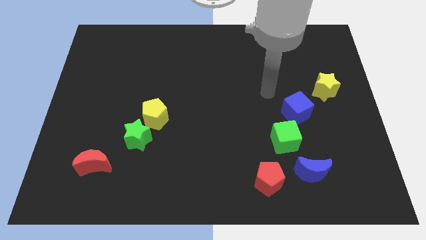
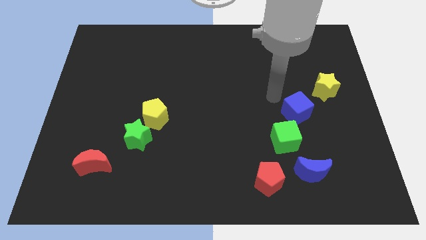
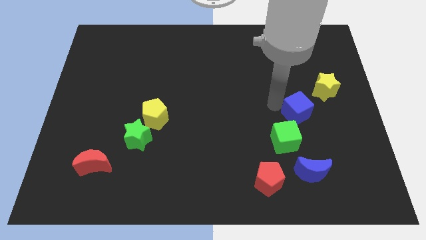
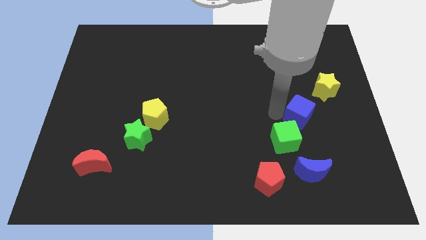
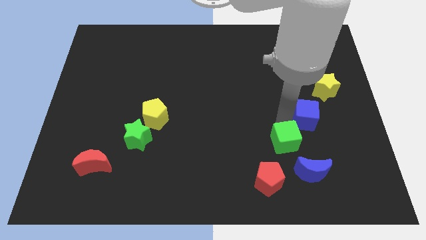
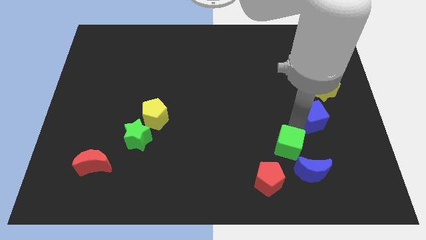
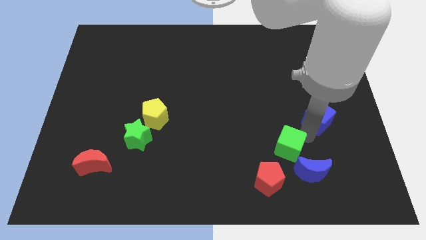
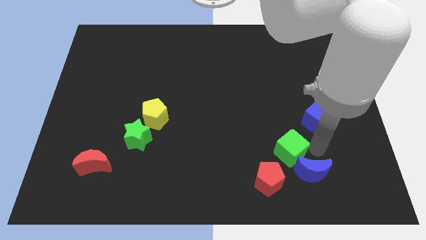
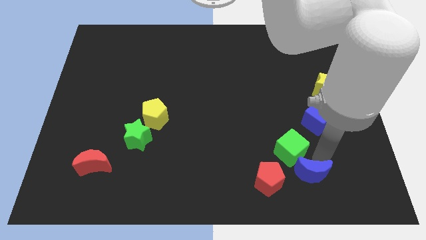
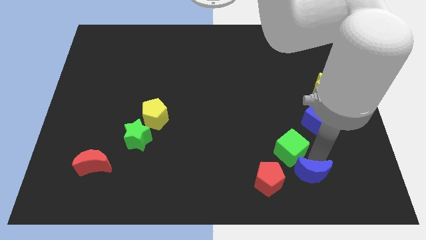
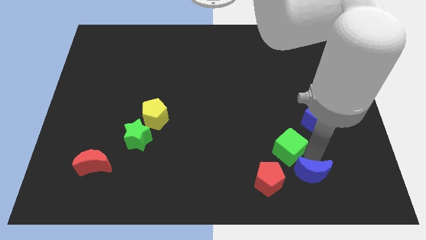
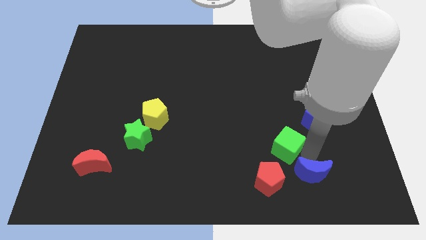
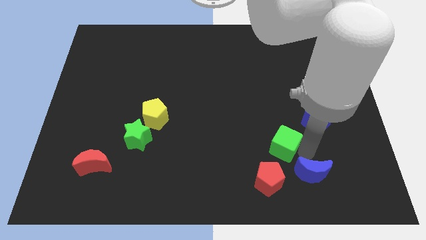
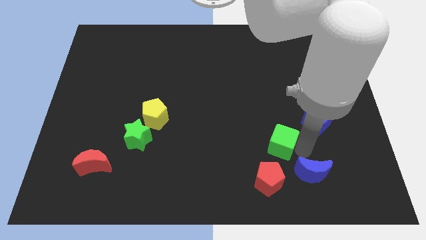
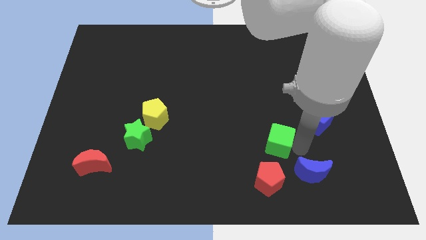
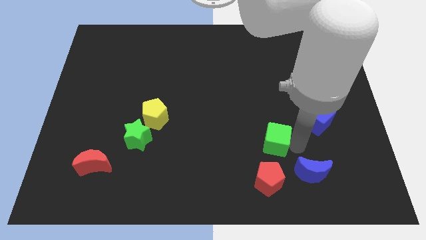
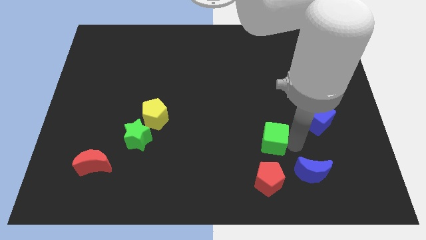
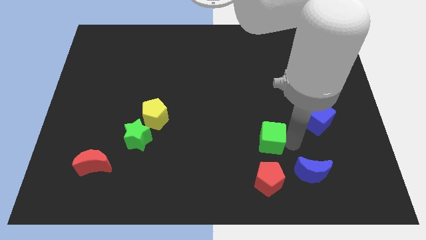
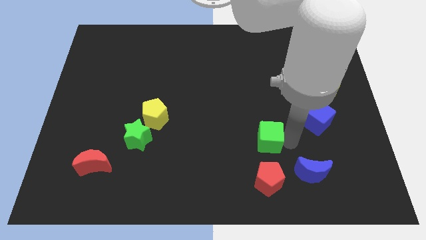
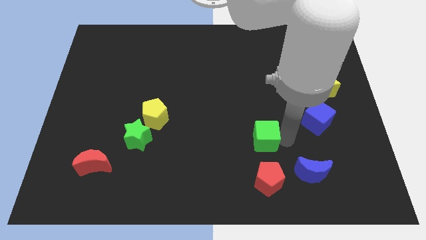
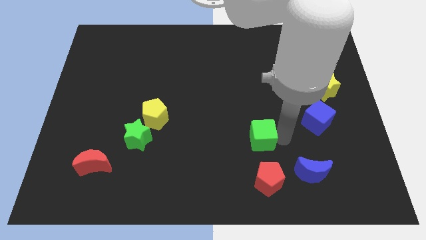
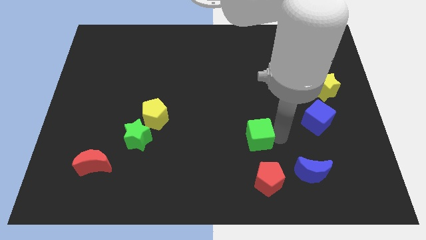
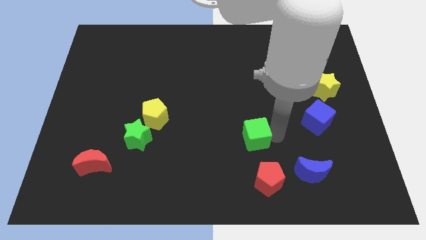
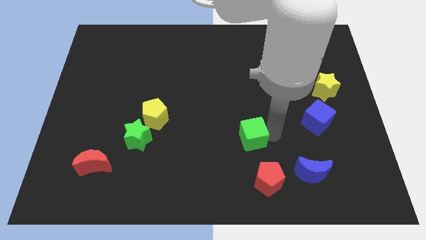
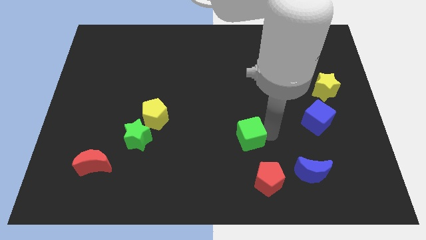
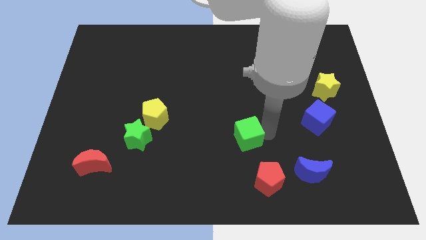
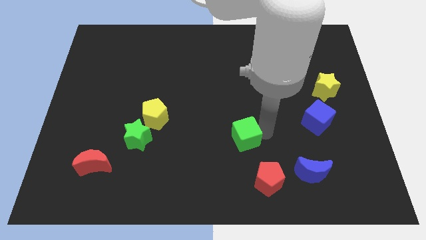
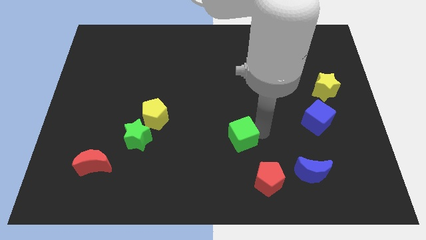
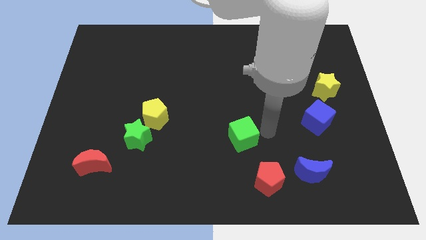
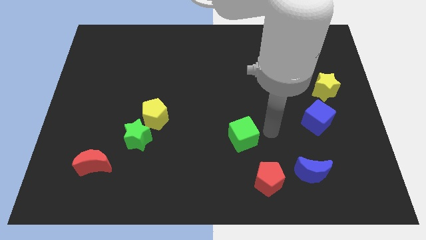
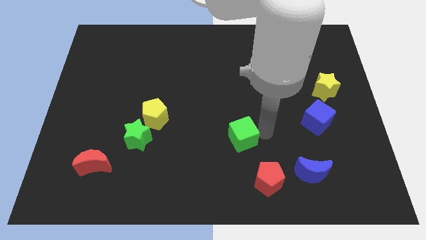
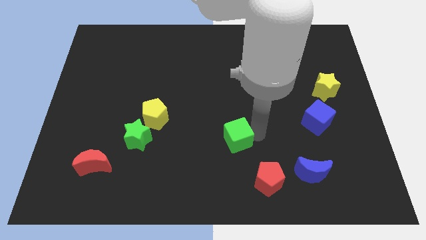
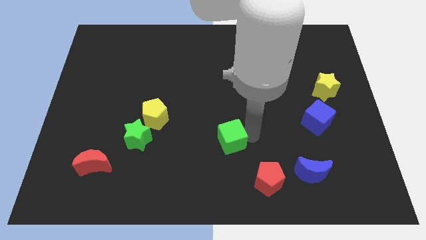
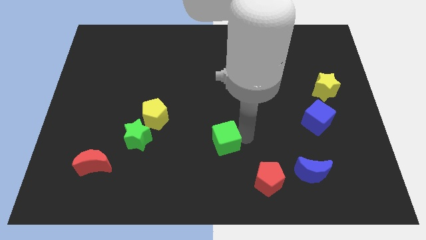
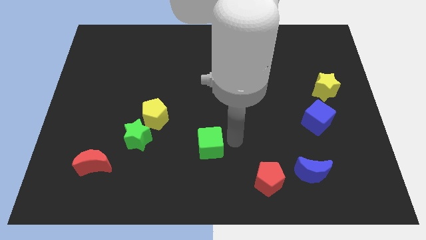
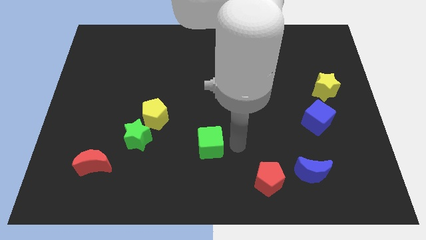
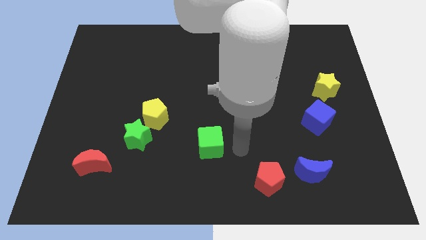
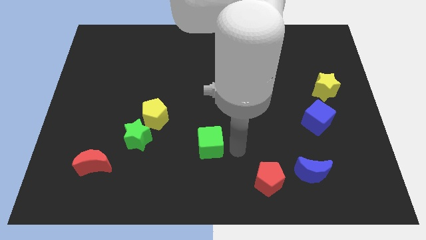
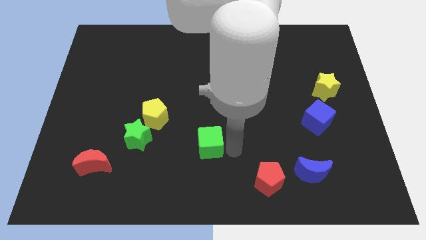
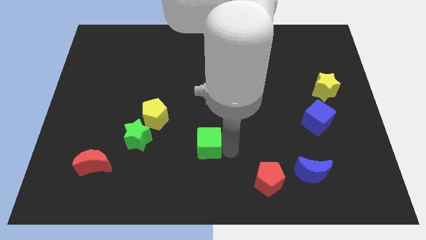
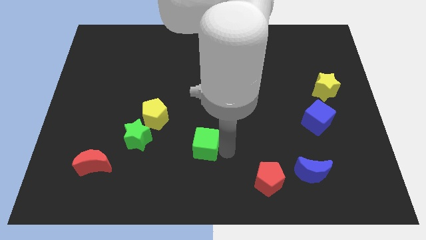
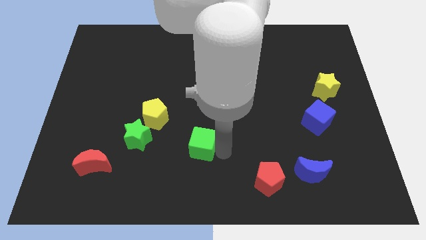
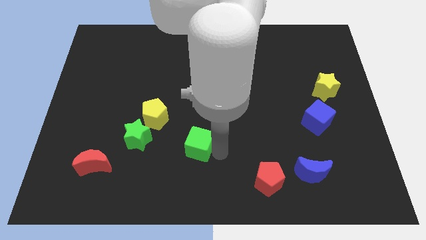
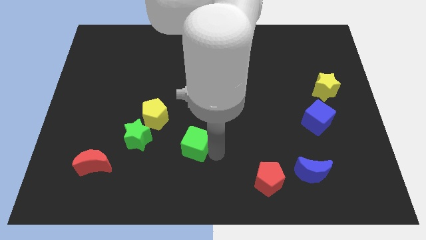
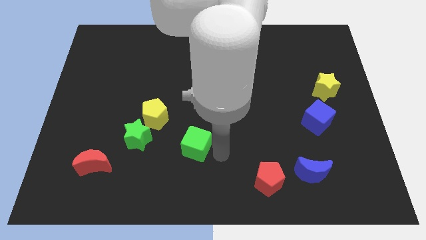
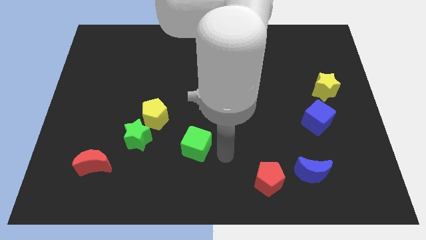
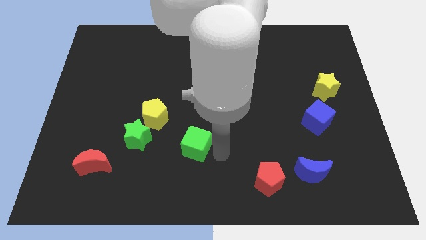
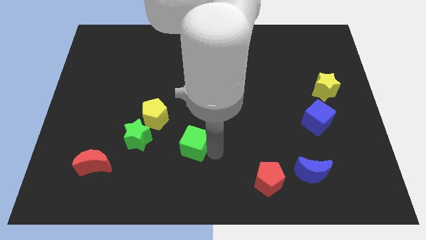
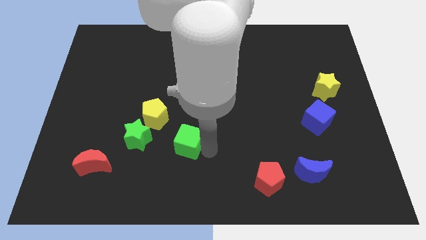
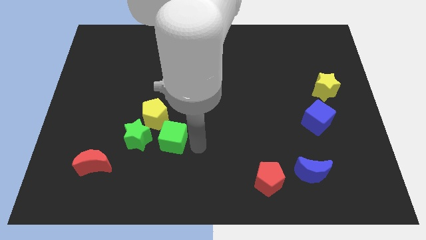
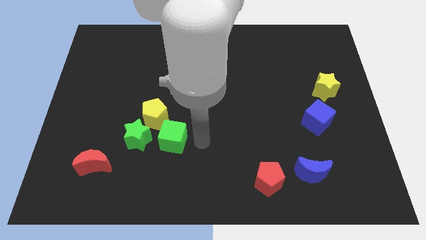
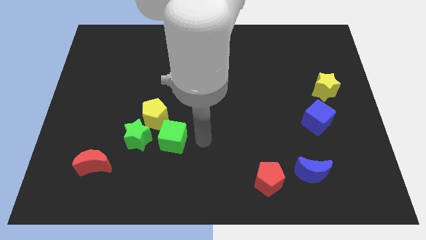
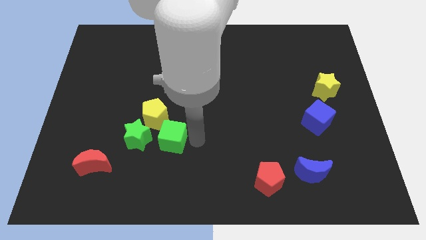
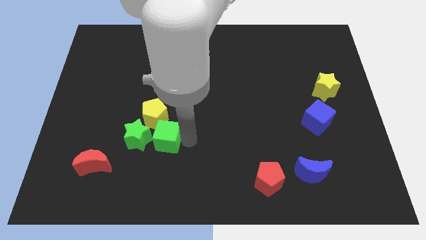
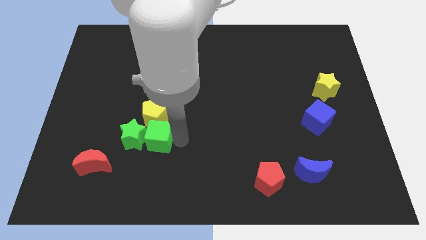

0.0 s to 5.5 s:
push the green cube close to the green star

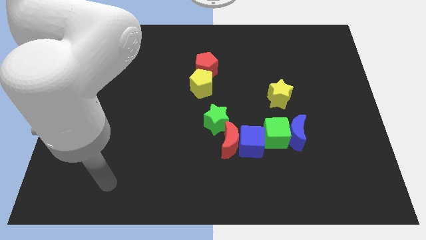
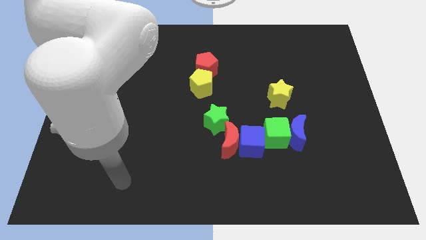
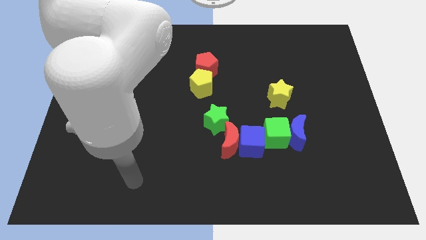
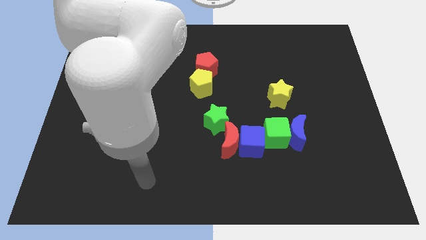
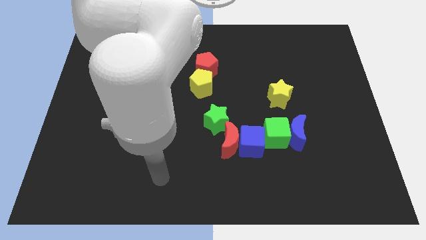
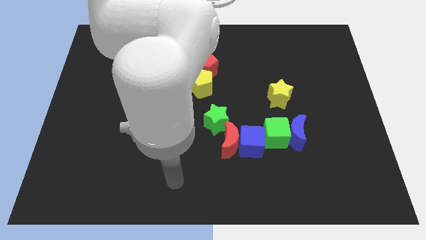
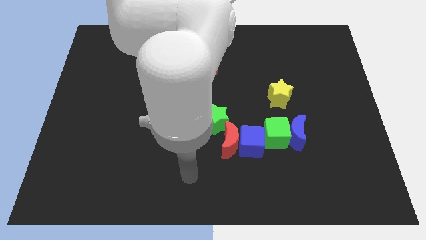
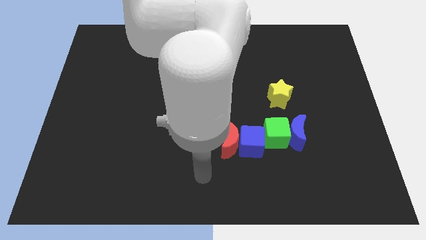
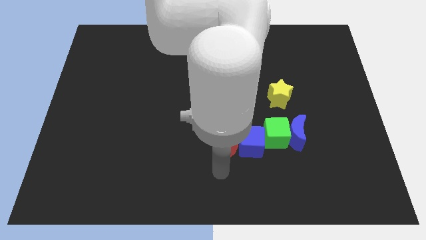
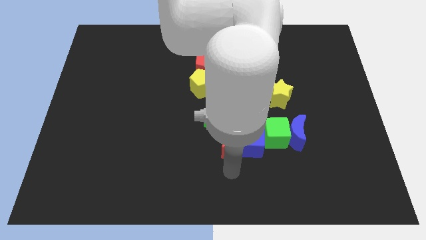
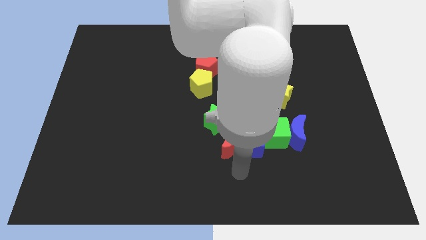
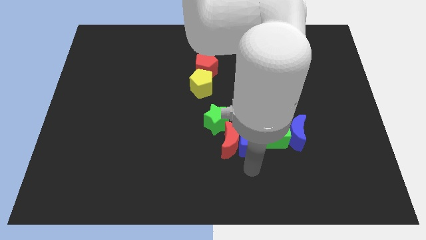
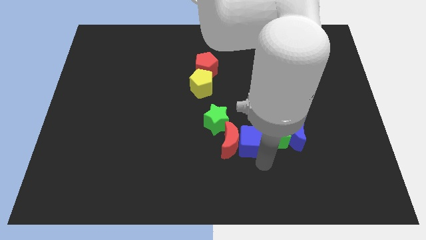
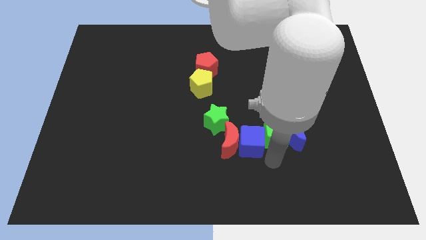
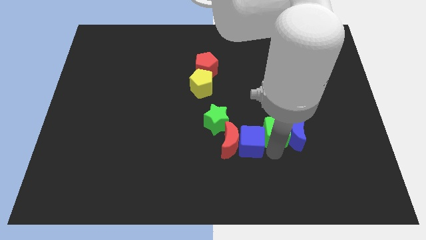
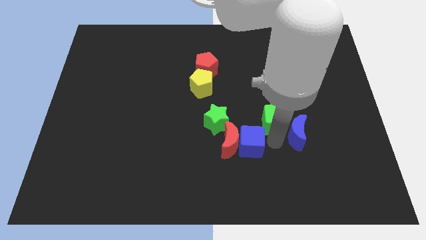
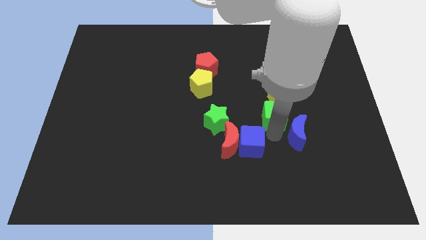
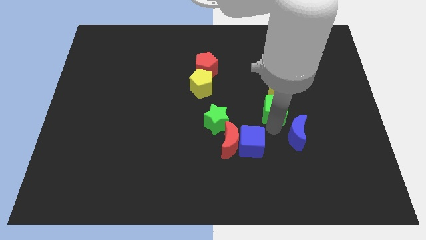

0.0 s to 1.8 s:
push the green cube to the yellow star

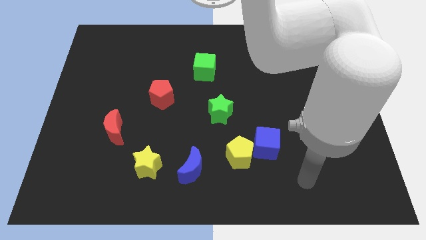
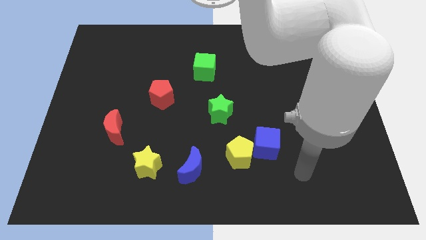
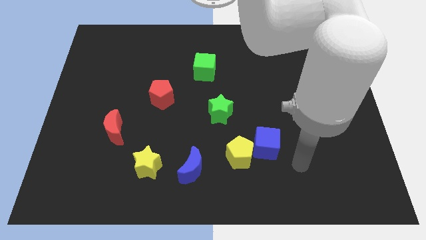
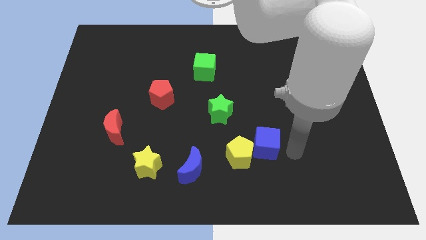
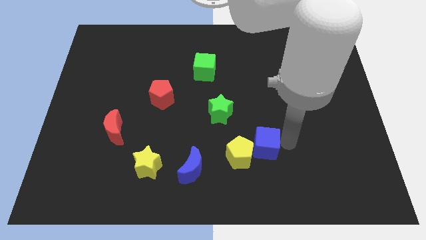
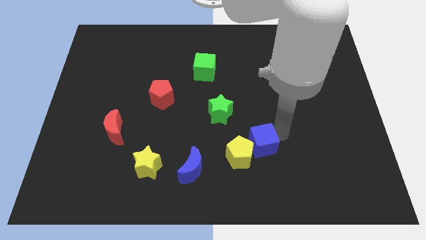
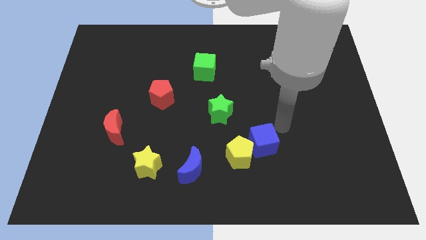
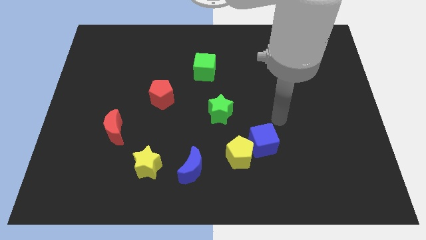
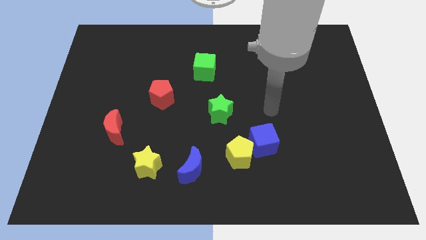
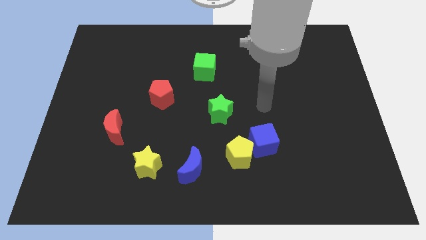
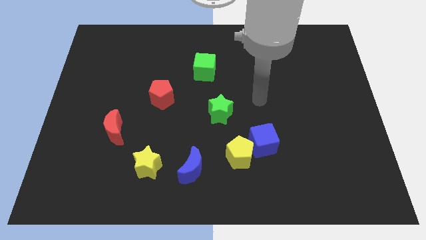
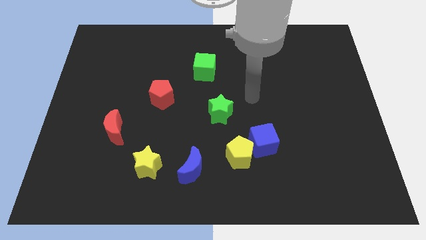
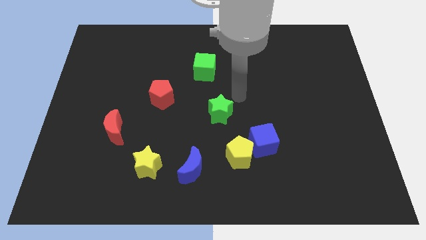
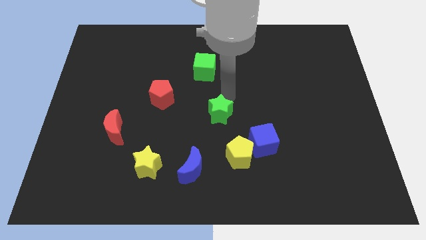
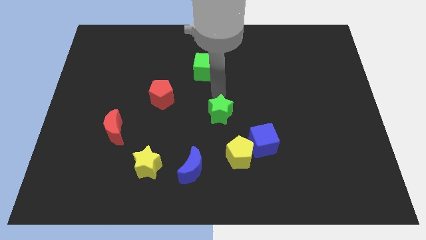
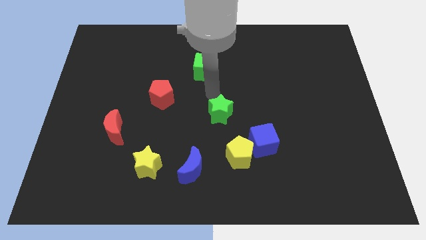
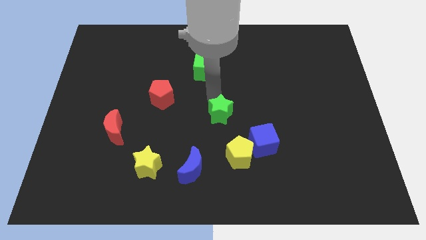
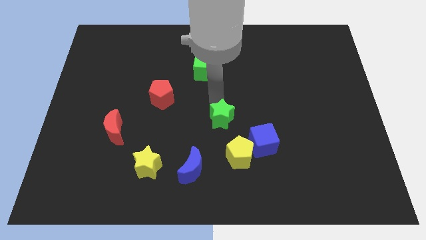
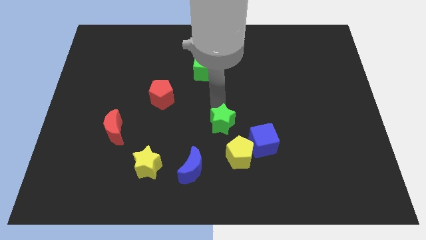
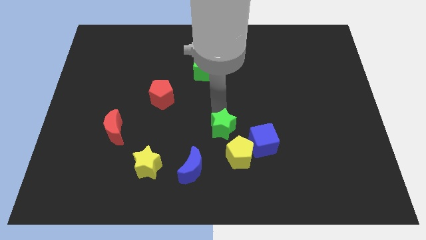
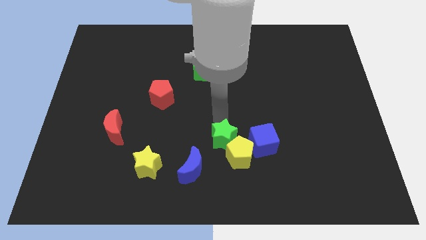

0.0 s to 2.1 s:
slide the green star towards the yellow pentagon
